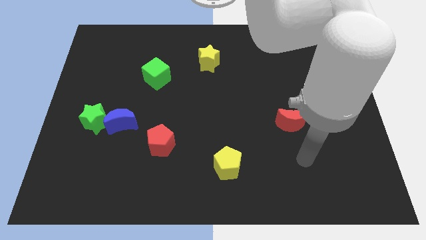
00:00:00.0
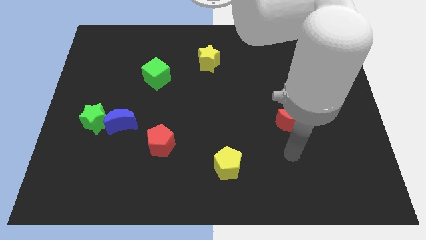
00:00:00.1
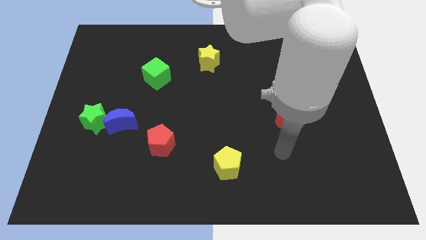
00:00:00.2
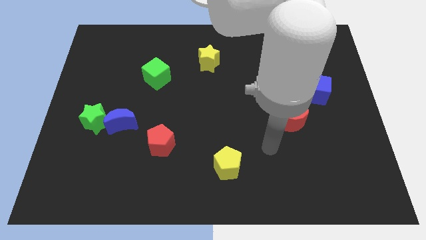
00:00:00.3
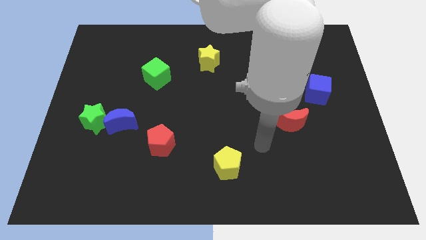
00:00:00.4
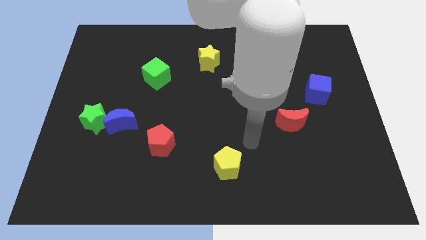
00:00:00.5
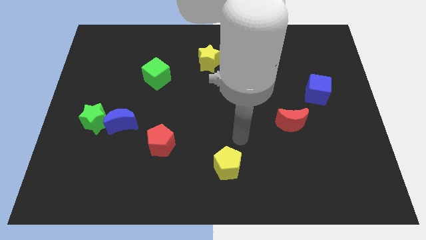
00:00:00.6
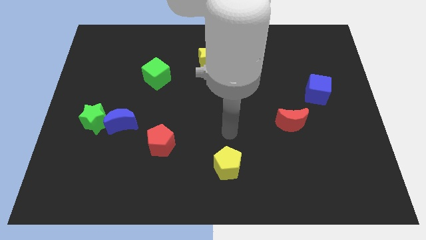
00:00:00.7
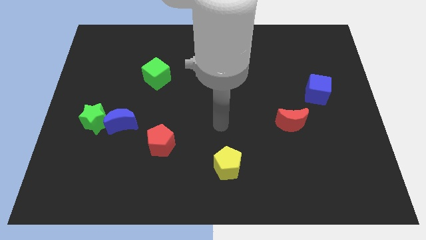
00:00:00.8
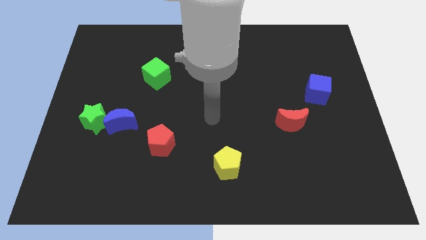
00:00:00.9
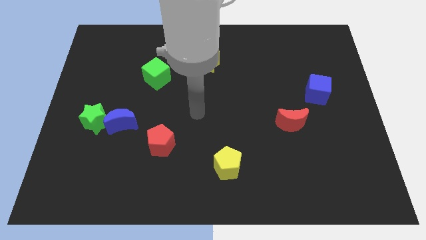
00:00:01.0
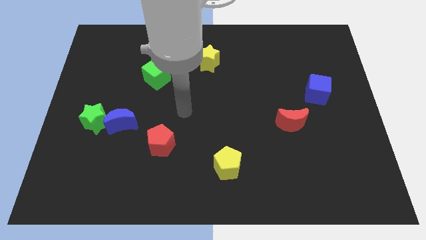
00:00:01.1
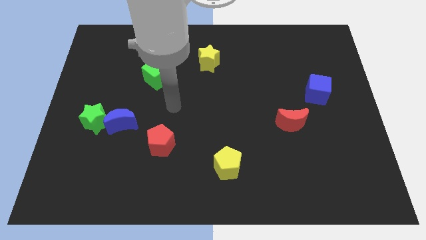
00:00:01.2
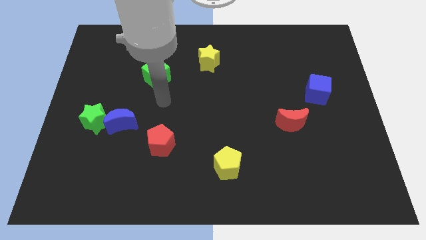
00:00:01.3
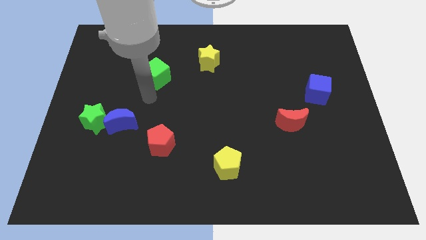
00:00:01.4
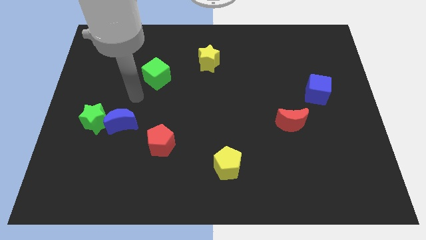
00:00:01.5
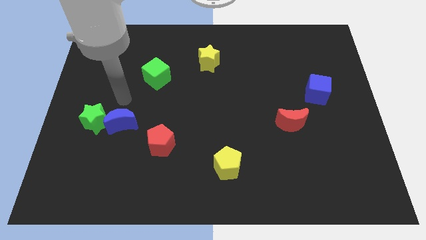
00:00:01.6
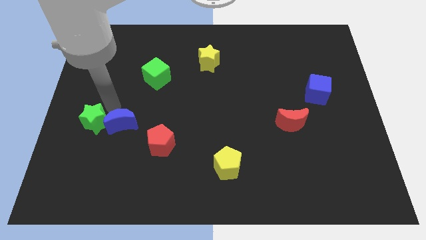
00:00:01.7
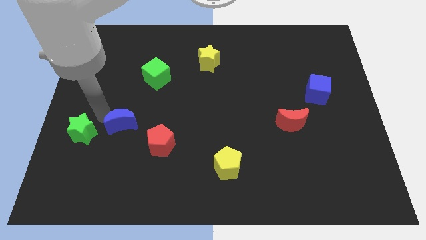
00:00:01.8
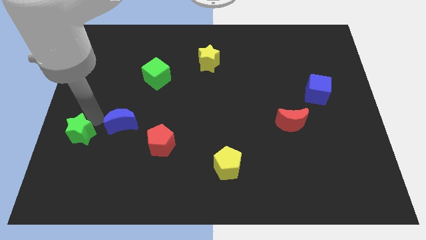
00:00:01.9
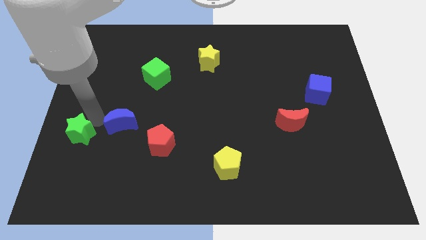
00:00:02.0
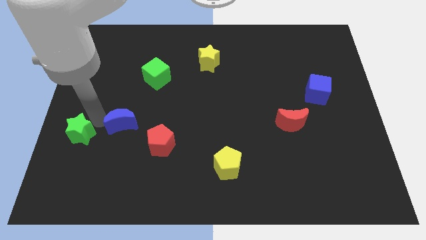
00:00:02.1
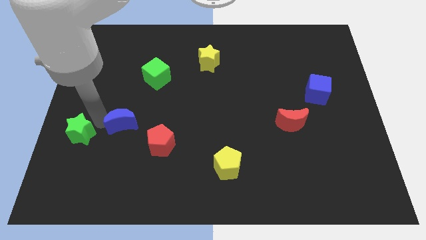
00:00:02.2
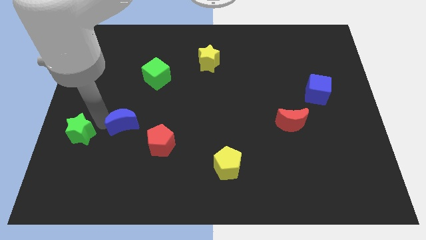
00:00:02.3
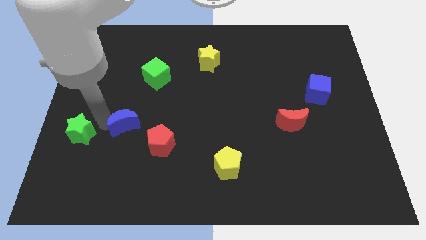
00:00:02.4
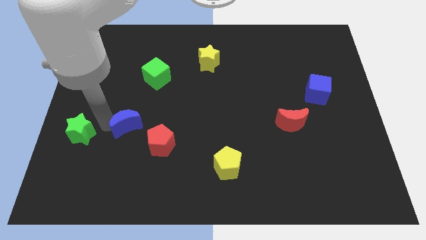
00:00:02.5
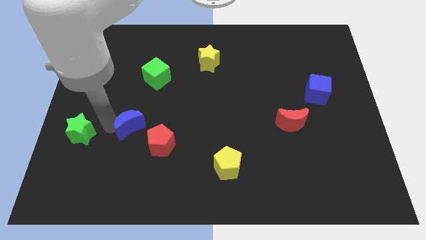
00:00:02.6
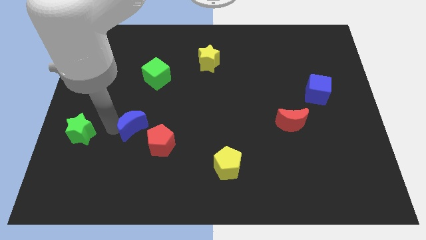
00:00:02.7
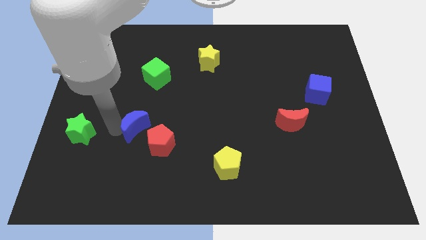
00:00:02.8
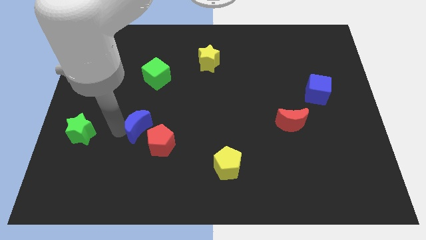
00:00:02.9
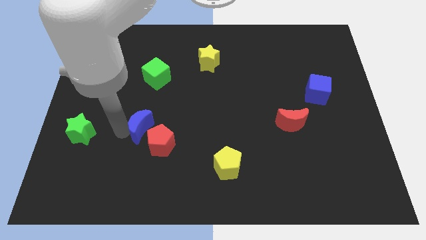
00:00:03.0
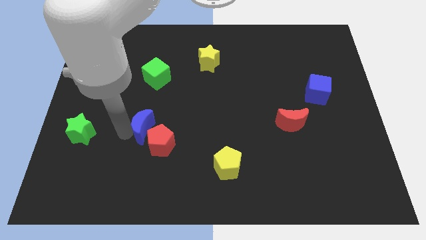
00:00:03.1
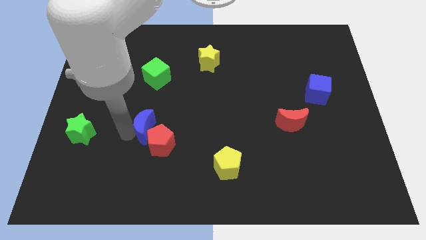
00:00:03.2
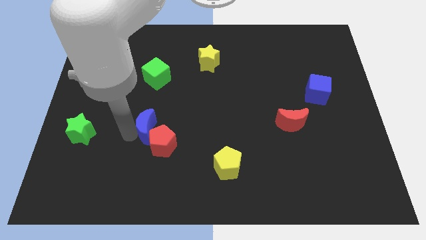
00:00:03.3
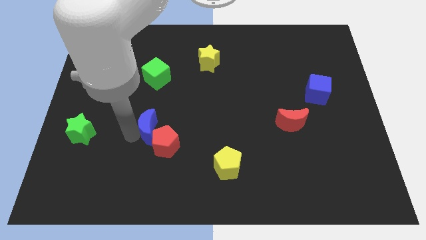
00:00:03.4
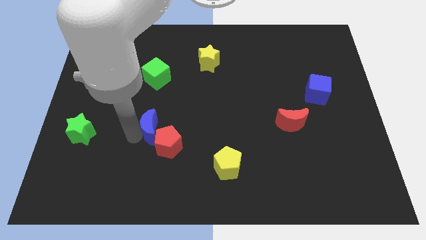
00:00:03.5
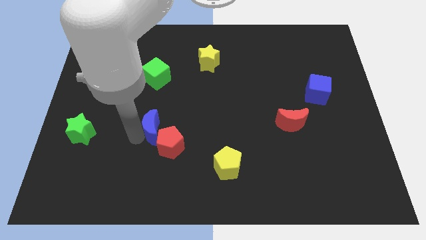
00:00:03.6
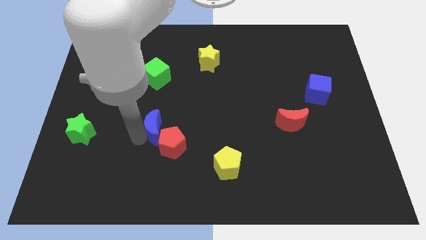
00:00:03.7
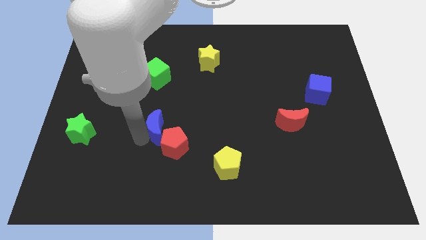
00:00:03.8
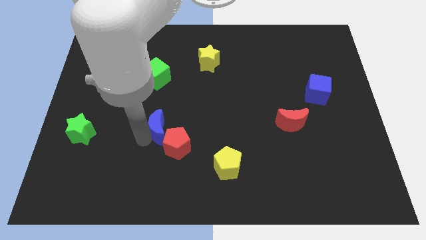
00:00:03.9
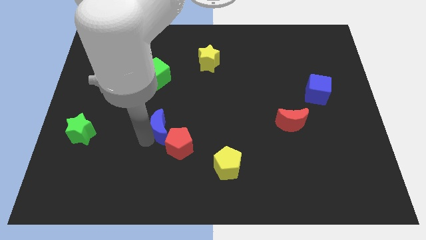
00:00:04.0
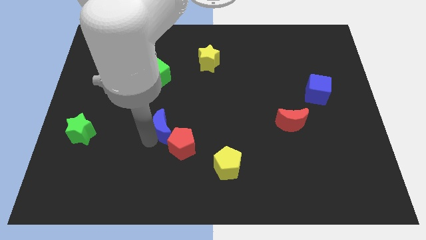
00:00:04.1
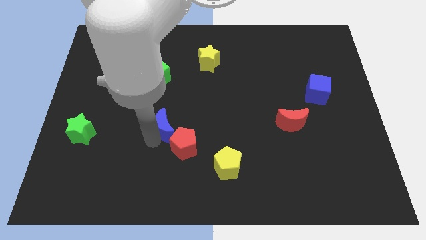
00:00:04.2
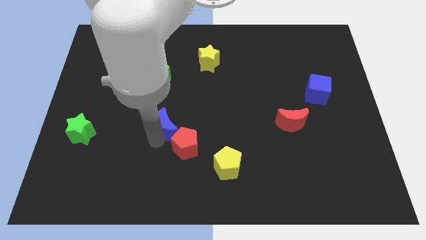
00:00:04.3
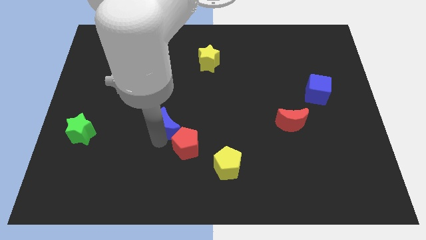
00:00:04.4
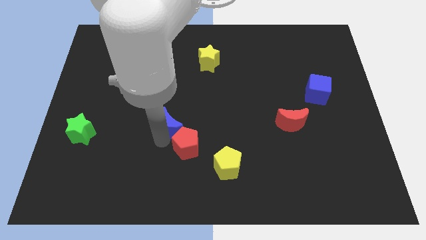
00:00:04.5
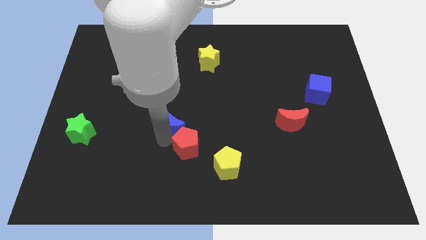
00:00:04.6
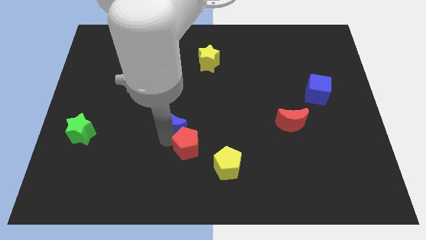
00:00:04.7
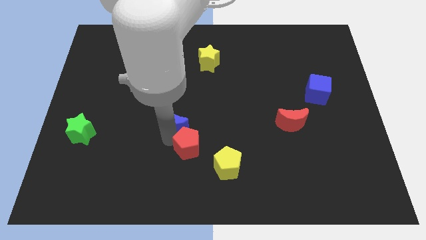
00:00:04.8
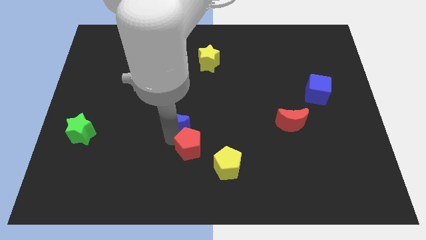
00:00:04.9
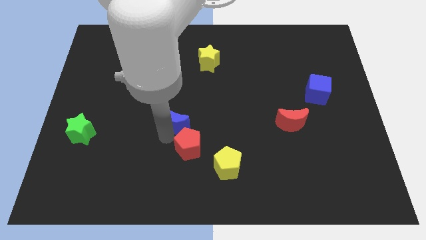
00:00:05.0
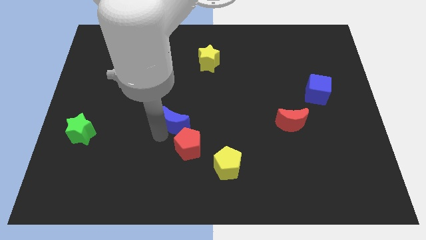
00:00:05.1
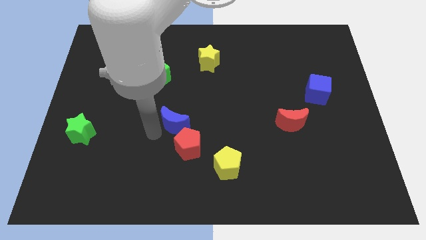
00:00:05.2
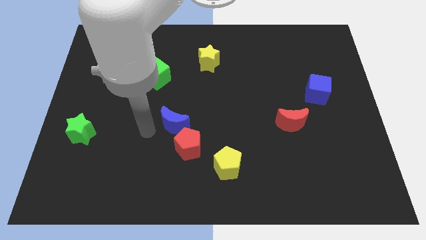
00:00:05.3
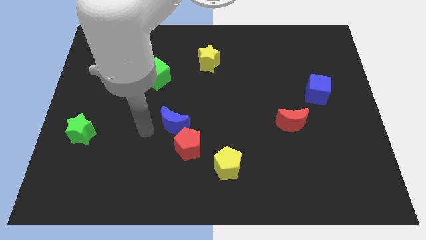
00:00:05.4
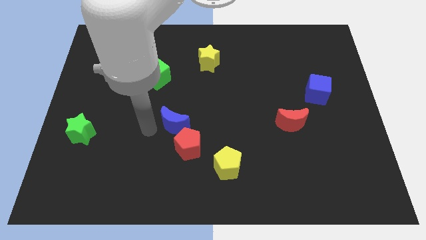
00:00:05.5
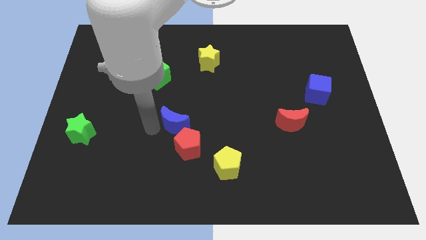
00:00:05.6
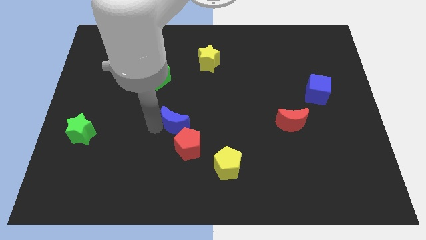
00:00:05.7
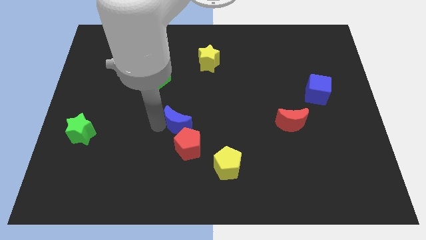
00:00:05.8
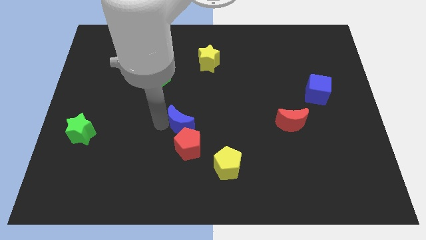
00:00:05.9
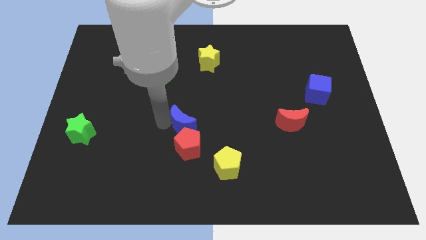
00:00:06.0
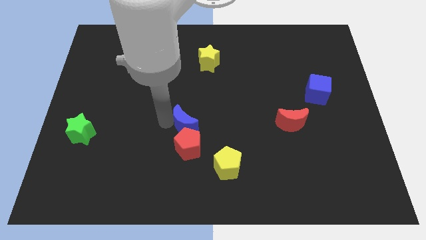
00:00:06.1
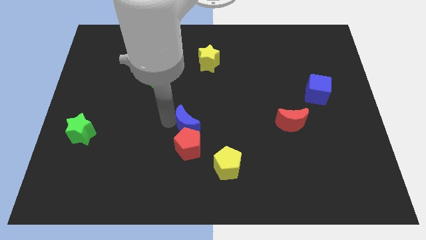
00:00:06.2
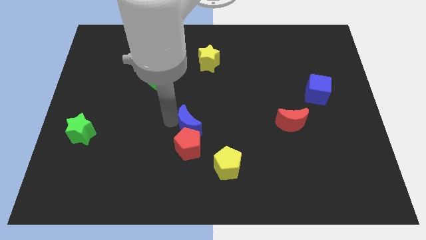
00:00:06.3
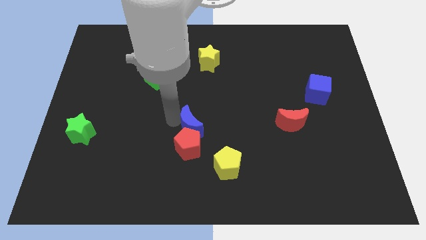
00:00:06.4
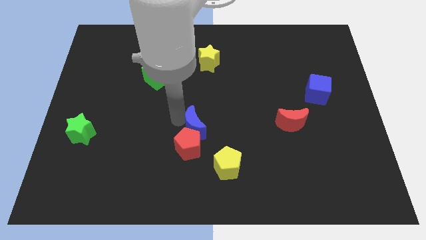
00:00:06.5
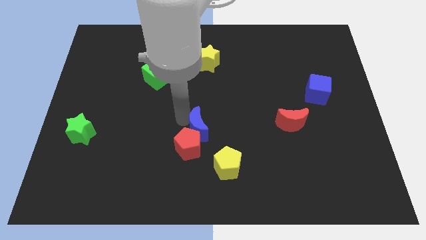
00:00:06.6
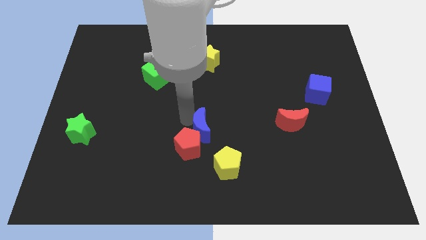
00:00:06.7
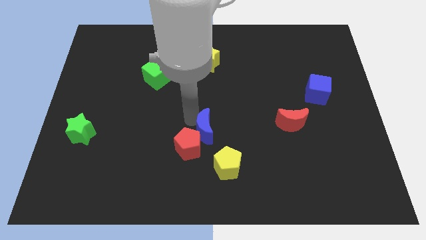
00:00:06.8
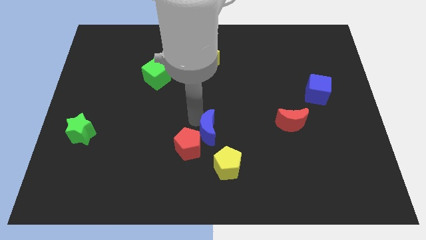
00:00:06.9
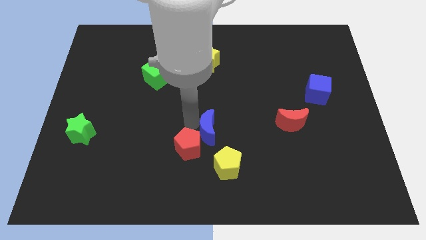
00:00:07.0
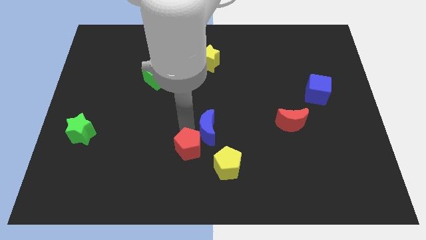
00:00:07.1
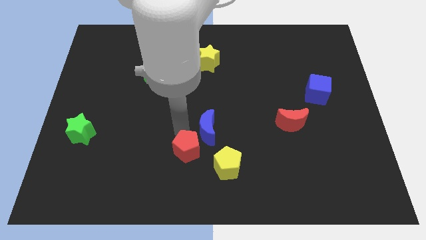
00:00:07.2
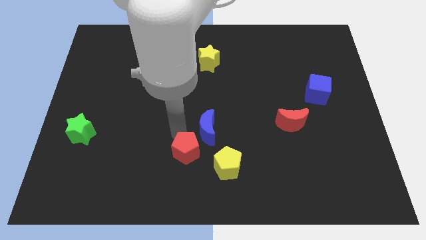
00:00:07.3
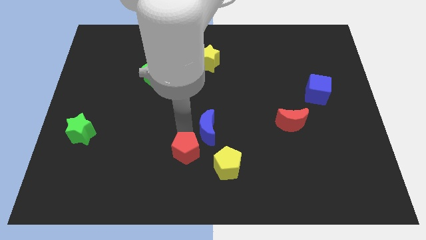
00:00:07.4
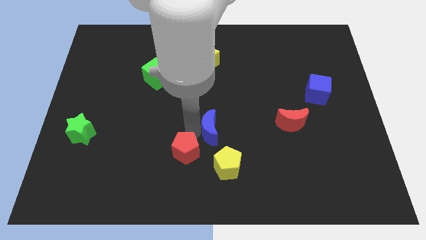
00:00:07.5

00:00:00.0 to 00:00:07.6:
slide the blue moon right

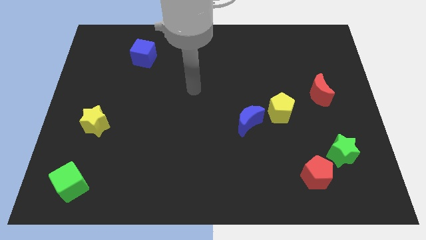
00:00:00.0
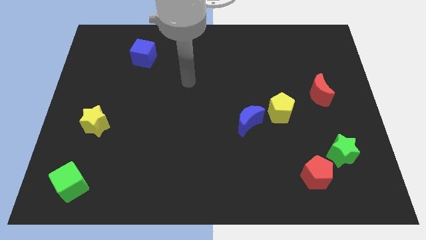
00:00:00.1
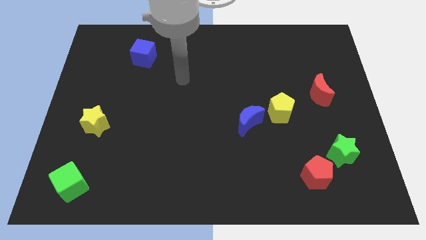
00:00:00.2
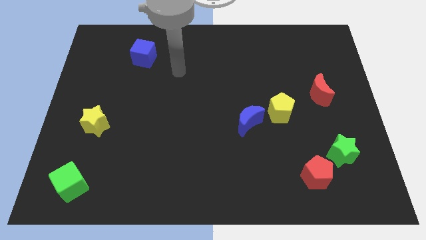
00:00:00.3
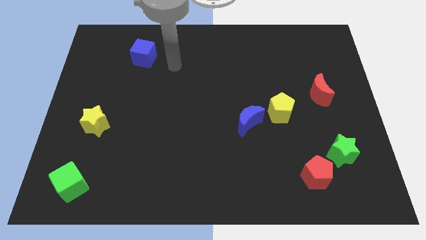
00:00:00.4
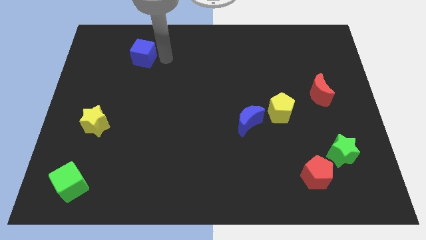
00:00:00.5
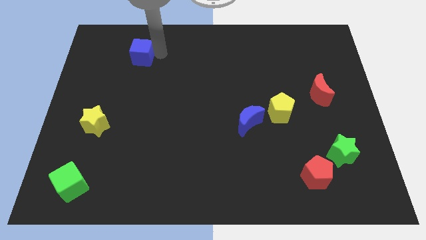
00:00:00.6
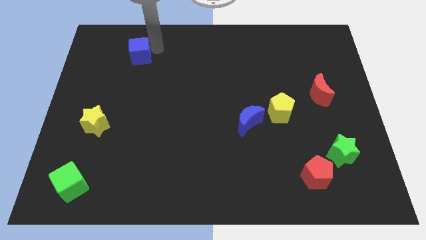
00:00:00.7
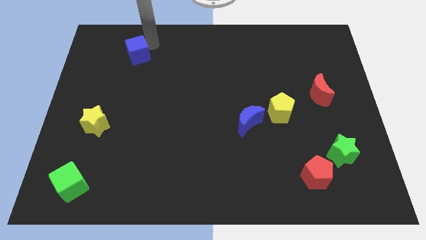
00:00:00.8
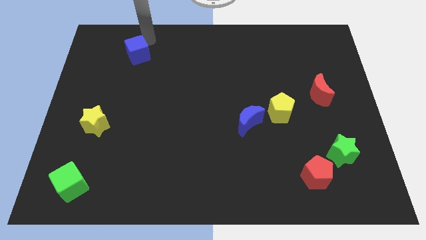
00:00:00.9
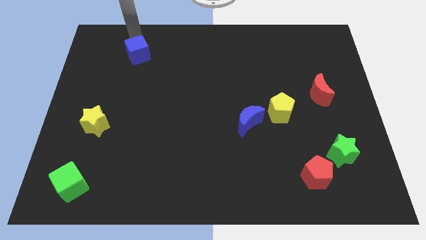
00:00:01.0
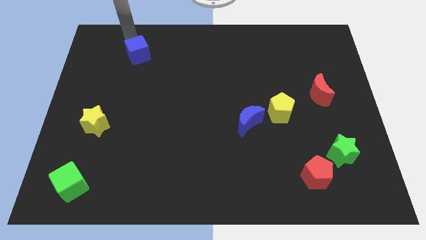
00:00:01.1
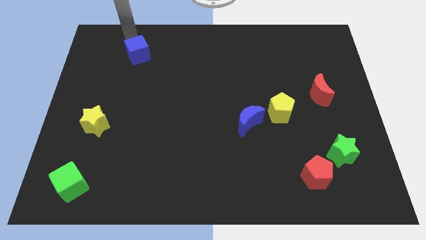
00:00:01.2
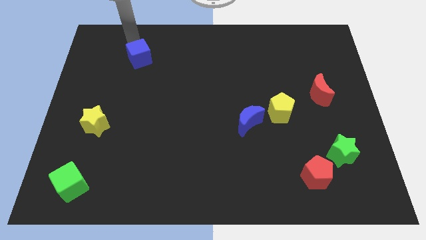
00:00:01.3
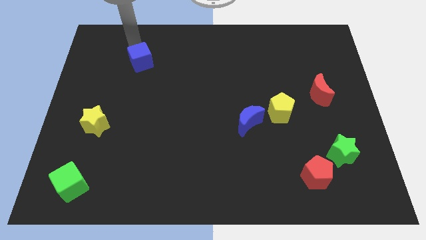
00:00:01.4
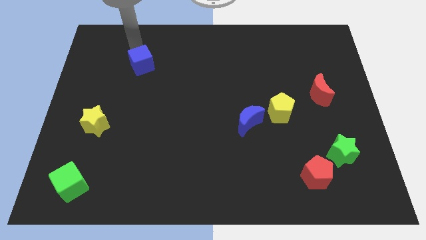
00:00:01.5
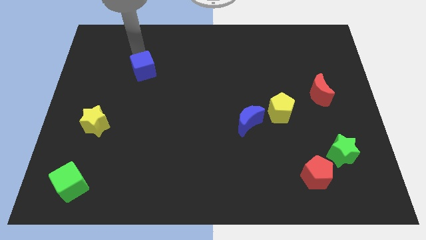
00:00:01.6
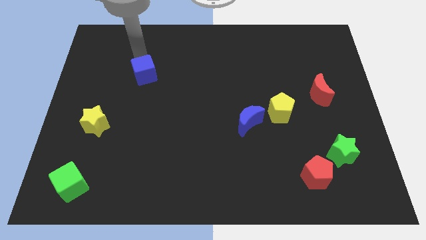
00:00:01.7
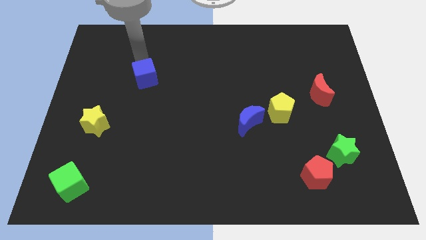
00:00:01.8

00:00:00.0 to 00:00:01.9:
push the blue cube down somewhat
